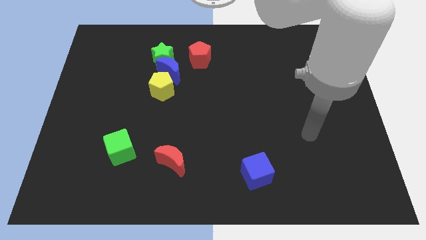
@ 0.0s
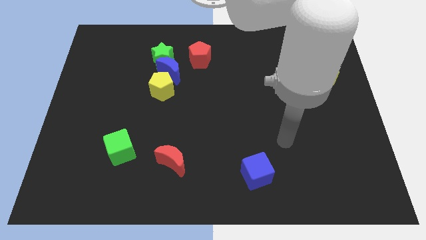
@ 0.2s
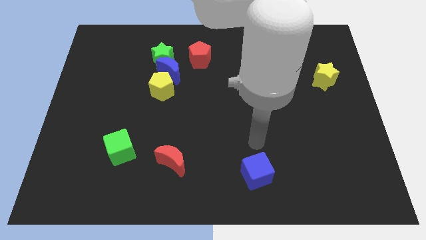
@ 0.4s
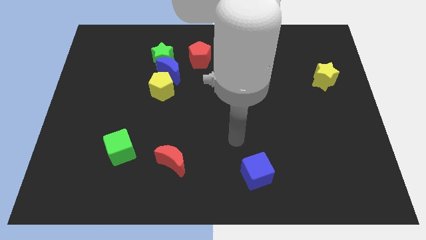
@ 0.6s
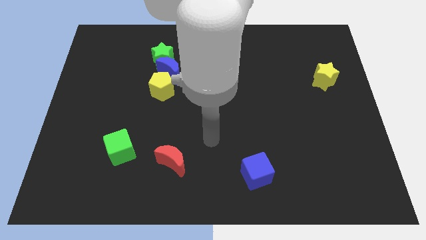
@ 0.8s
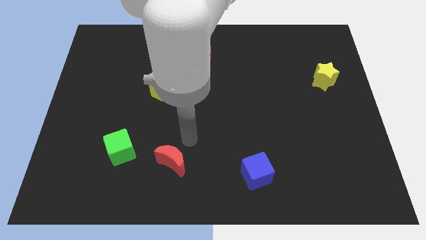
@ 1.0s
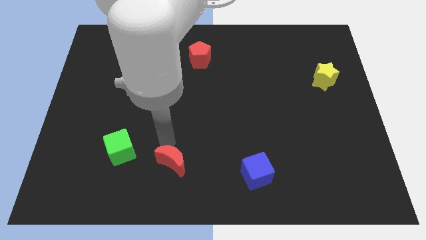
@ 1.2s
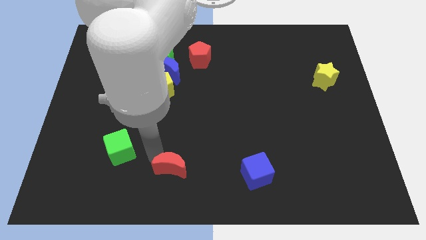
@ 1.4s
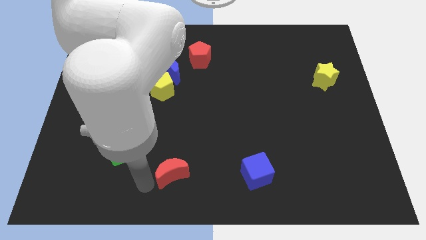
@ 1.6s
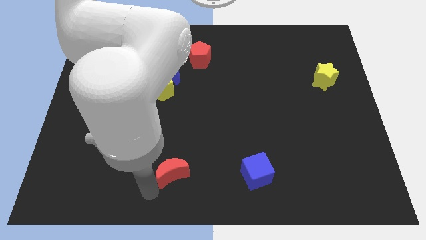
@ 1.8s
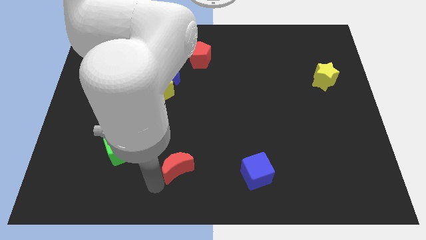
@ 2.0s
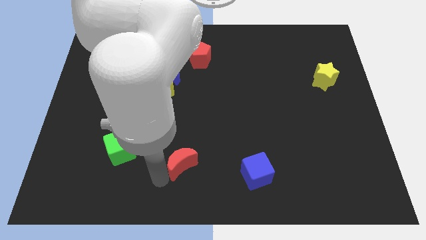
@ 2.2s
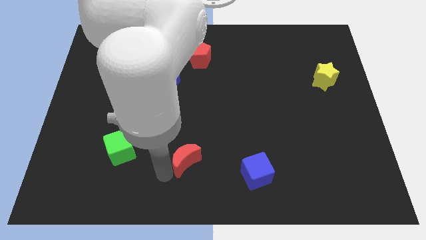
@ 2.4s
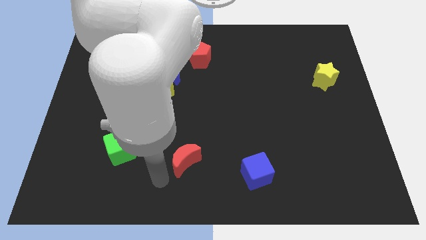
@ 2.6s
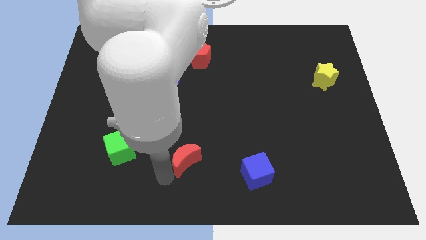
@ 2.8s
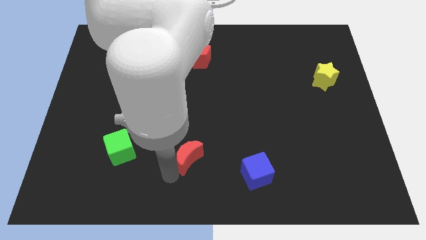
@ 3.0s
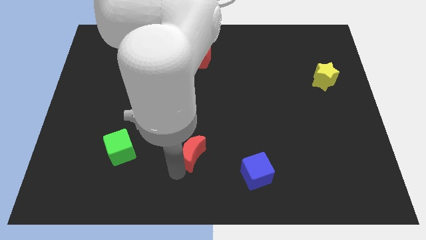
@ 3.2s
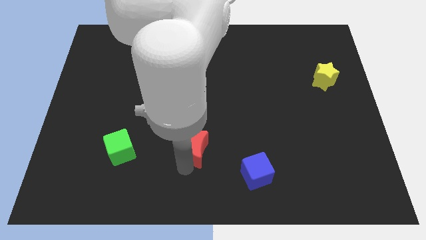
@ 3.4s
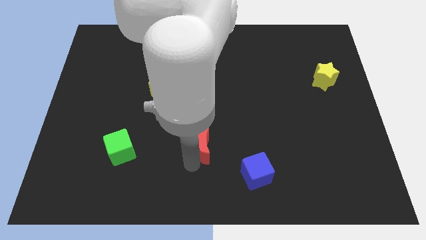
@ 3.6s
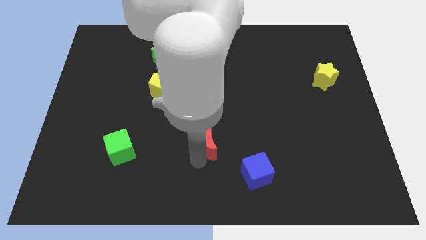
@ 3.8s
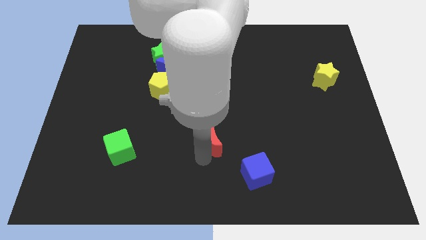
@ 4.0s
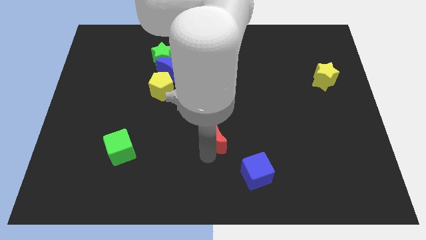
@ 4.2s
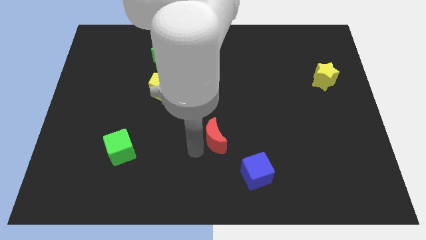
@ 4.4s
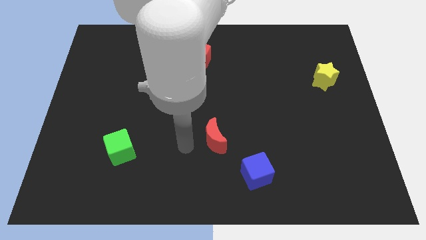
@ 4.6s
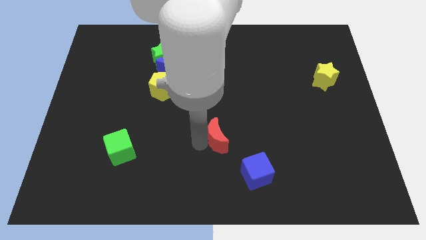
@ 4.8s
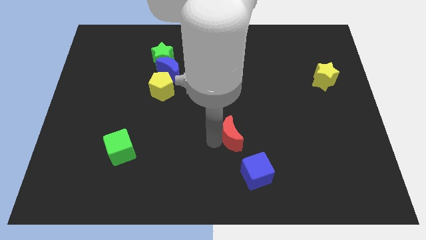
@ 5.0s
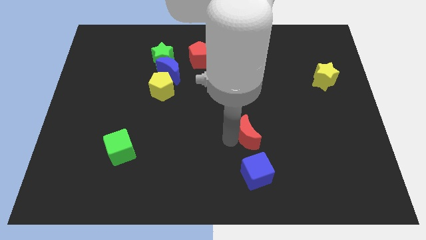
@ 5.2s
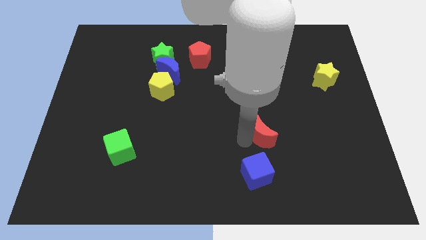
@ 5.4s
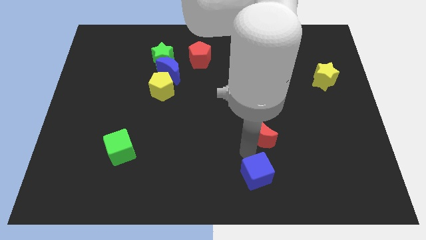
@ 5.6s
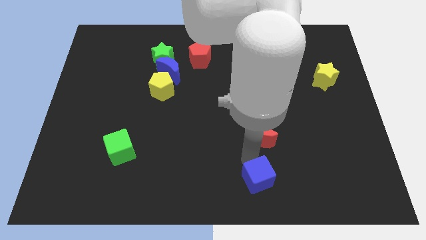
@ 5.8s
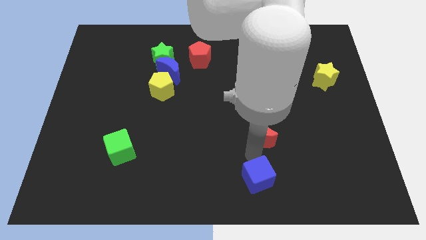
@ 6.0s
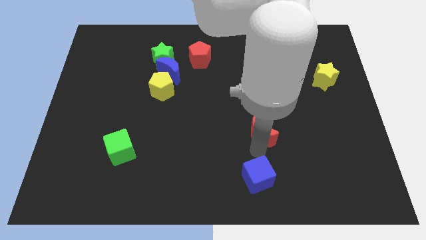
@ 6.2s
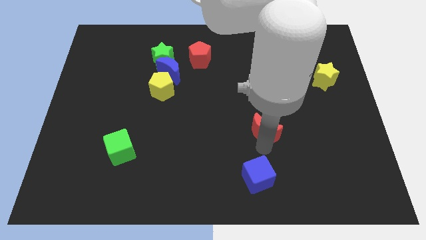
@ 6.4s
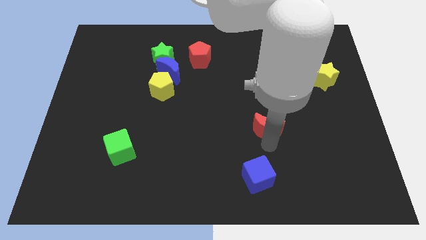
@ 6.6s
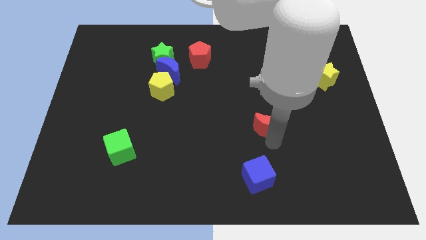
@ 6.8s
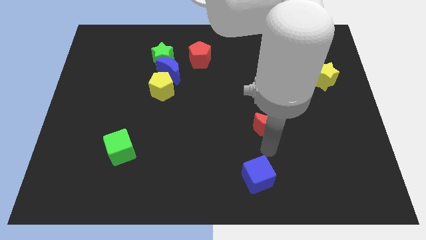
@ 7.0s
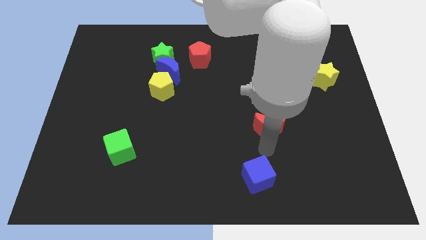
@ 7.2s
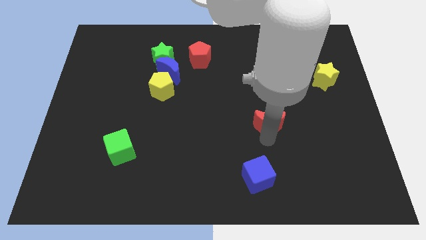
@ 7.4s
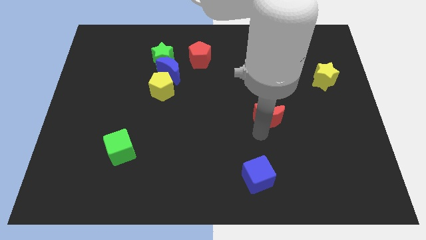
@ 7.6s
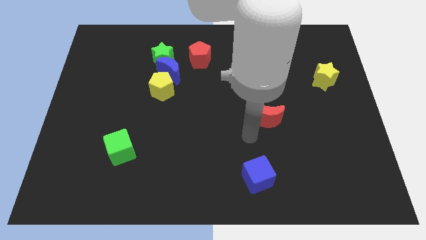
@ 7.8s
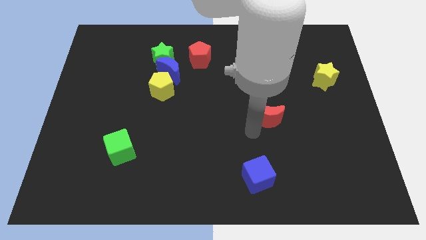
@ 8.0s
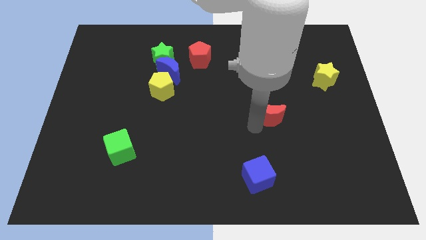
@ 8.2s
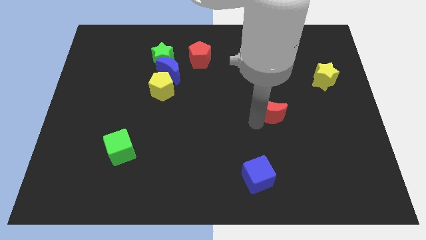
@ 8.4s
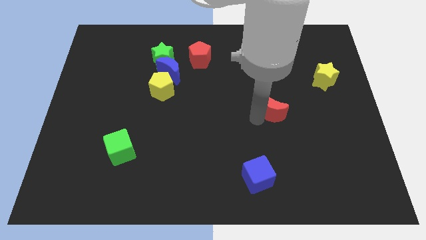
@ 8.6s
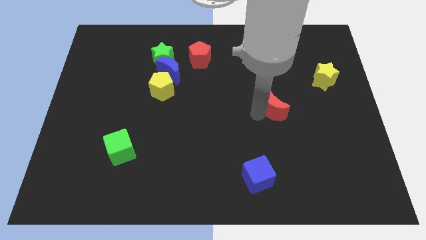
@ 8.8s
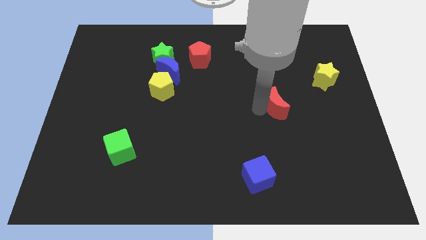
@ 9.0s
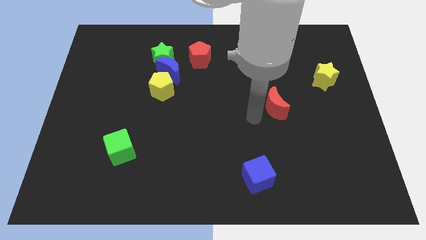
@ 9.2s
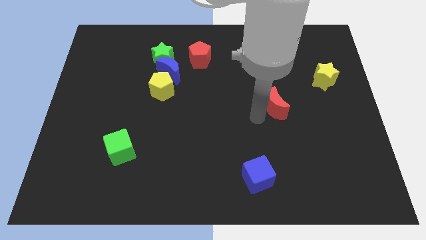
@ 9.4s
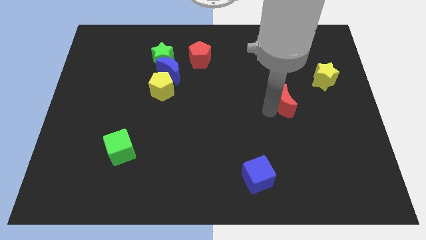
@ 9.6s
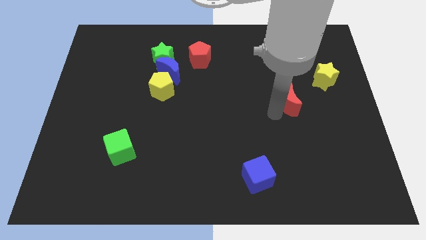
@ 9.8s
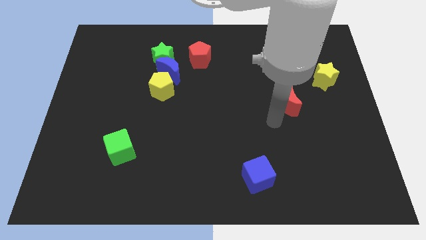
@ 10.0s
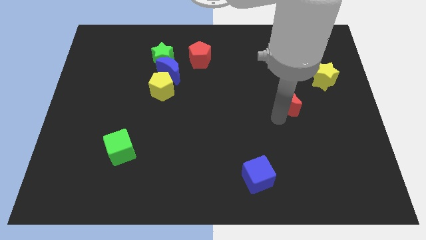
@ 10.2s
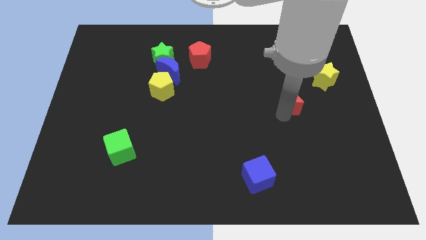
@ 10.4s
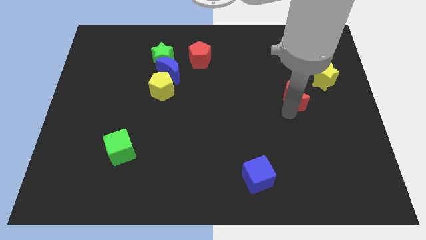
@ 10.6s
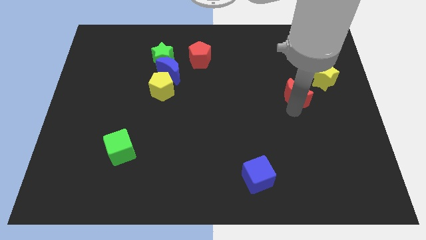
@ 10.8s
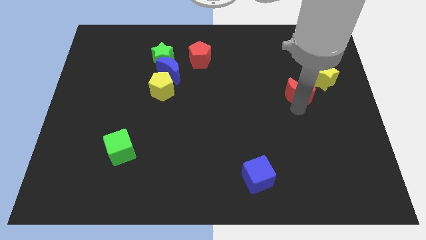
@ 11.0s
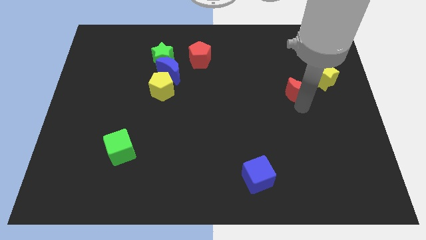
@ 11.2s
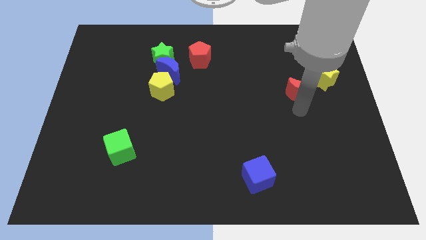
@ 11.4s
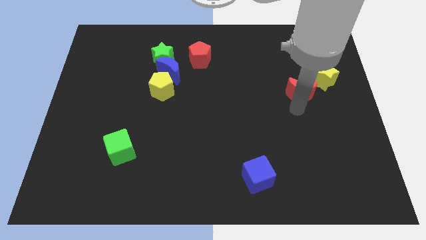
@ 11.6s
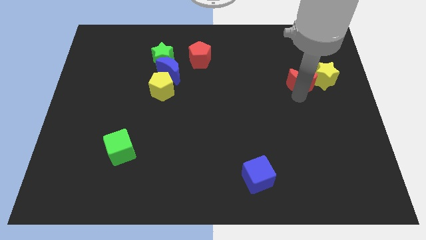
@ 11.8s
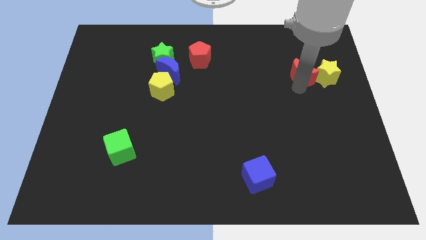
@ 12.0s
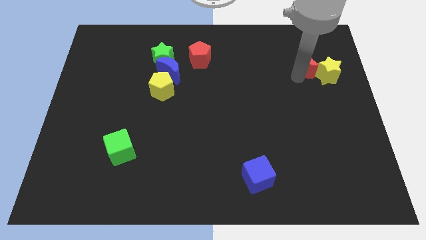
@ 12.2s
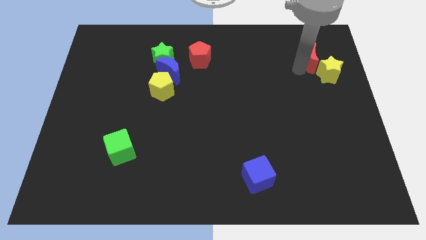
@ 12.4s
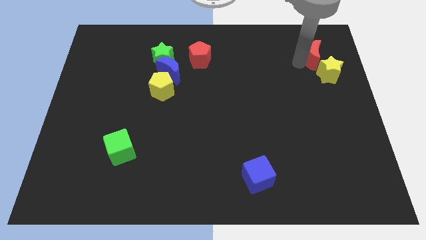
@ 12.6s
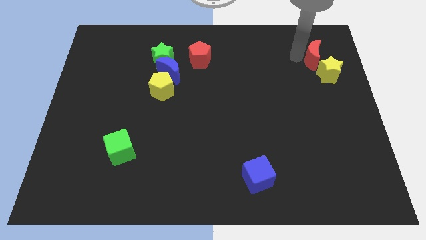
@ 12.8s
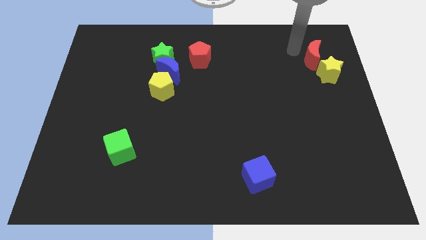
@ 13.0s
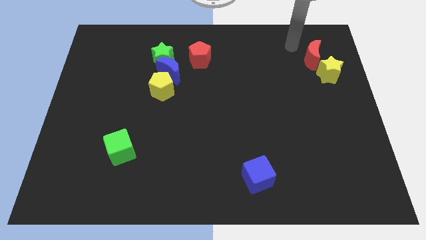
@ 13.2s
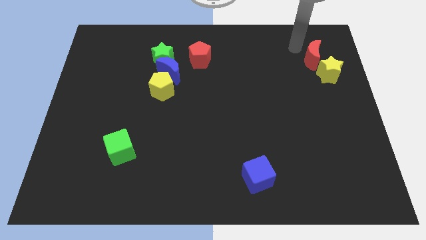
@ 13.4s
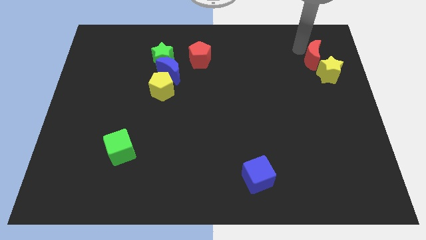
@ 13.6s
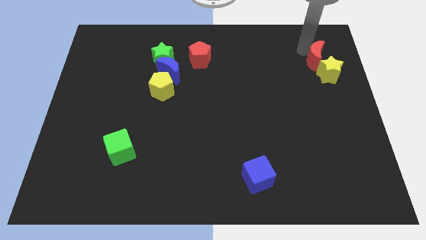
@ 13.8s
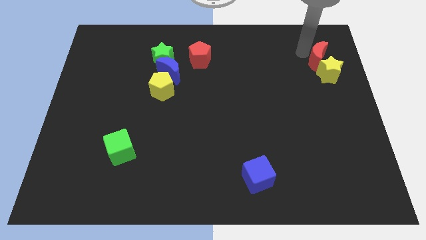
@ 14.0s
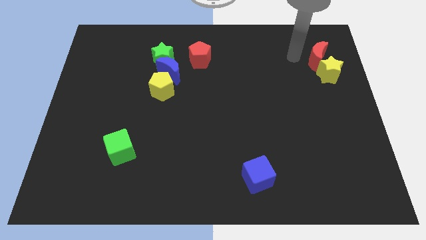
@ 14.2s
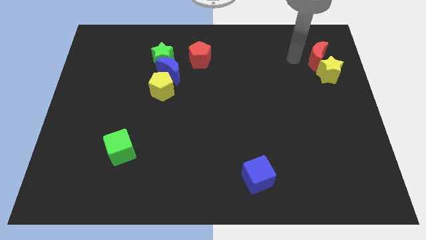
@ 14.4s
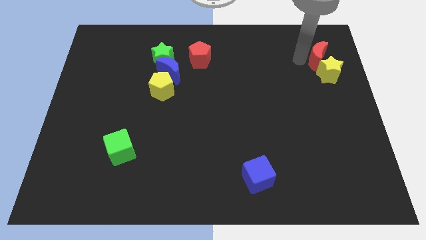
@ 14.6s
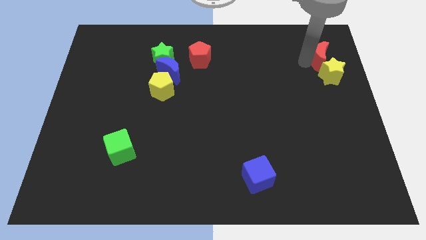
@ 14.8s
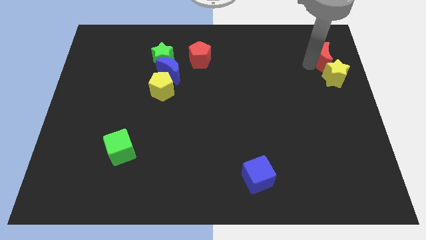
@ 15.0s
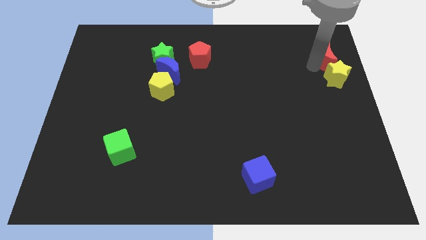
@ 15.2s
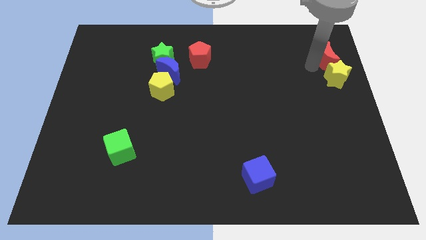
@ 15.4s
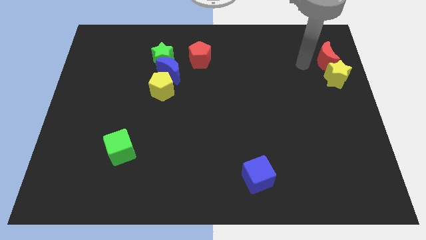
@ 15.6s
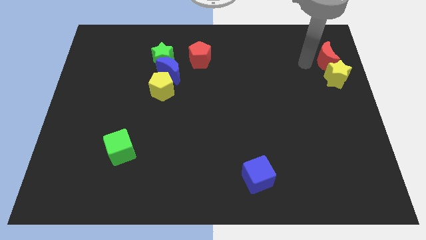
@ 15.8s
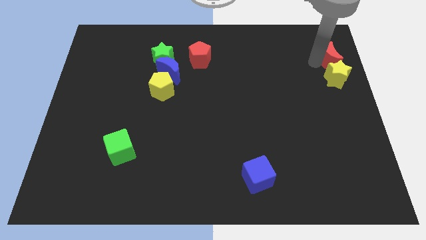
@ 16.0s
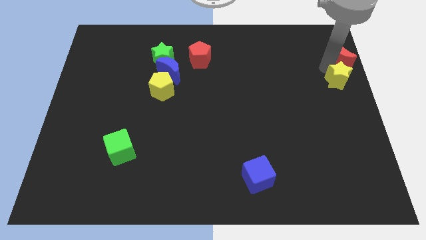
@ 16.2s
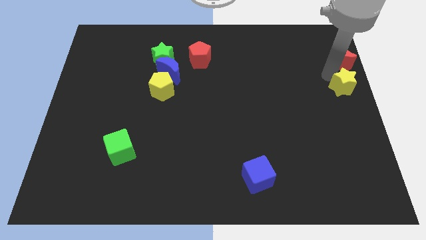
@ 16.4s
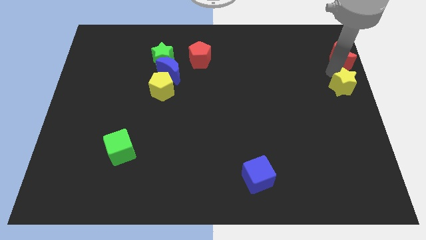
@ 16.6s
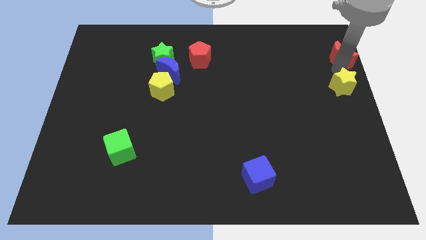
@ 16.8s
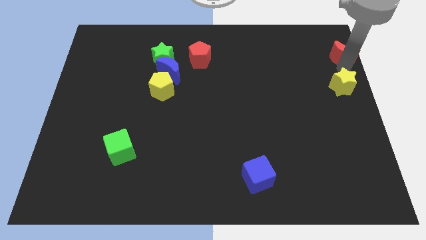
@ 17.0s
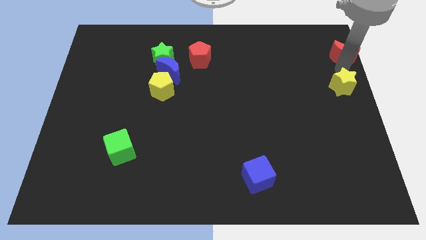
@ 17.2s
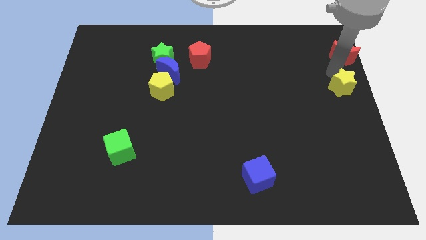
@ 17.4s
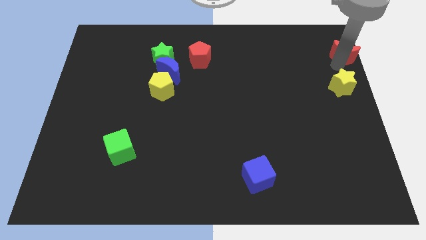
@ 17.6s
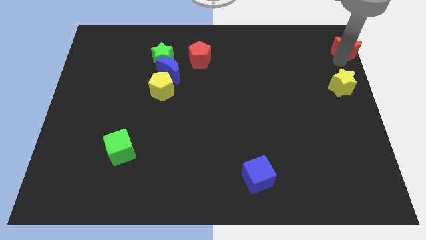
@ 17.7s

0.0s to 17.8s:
push the red moon to the top right
